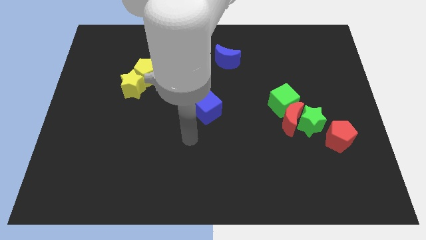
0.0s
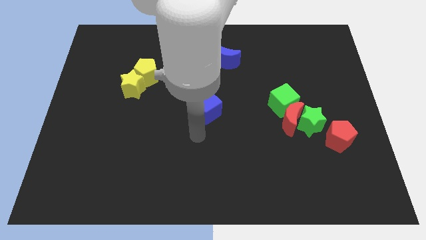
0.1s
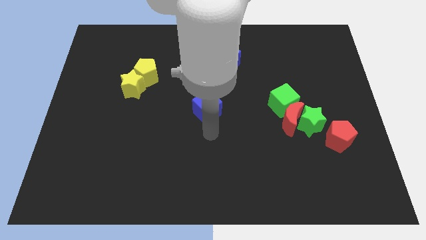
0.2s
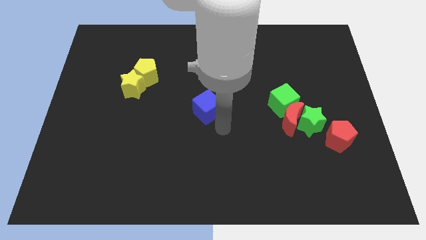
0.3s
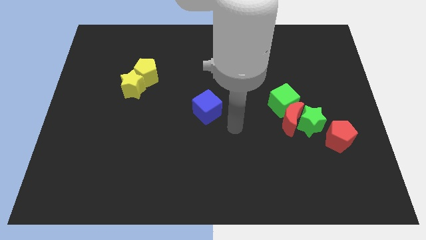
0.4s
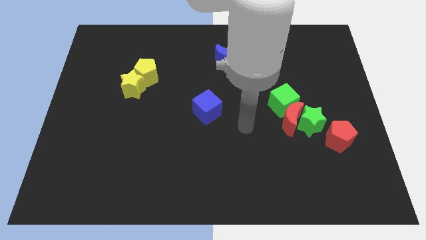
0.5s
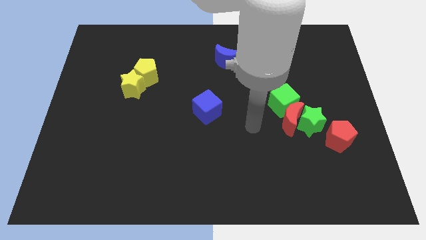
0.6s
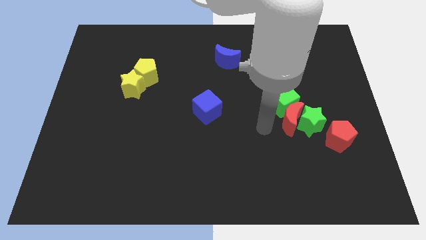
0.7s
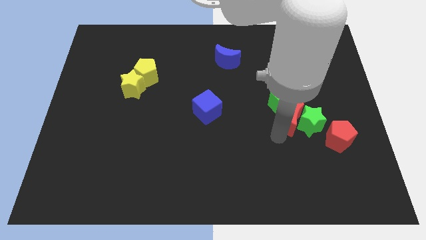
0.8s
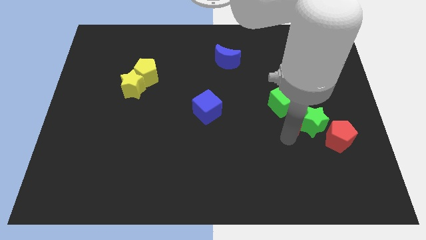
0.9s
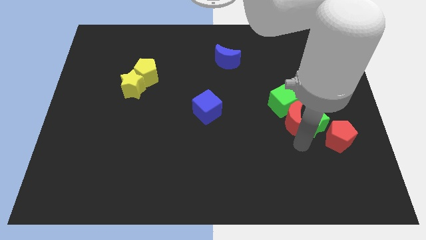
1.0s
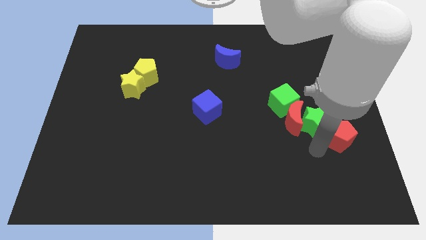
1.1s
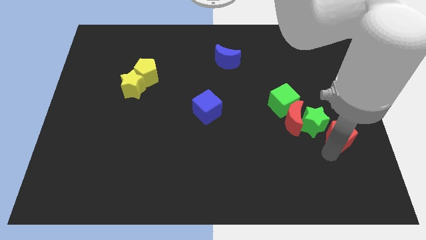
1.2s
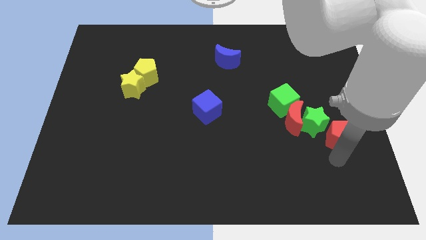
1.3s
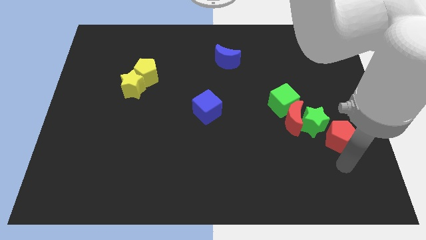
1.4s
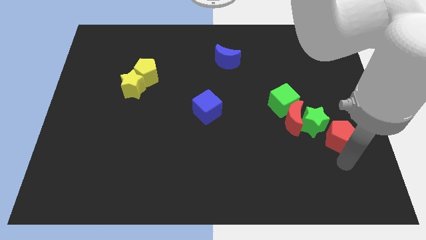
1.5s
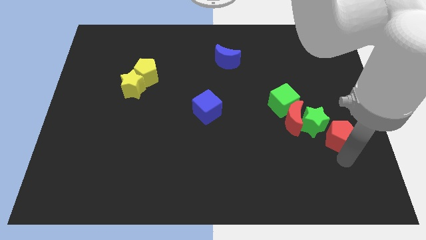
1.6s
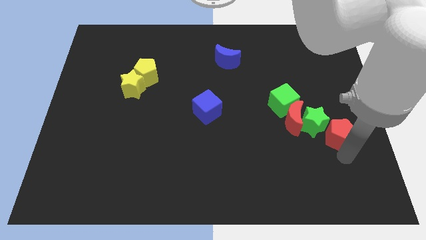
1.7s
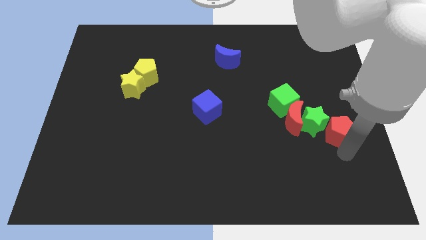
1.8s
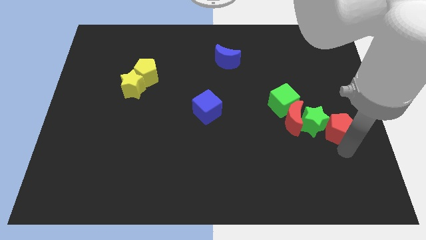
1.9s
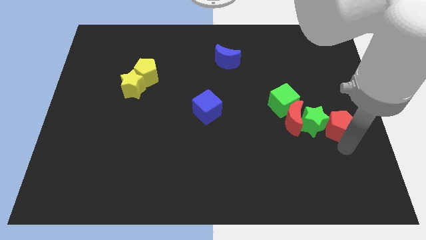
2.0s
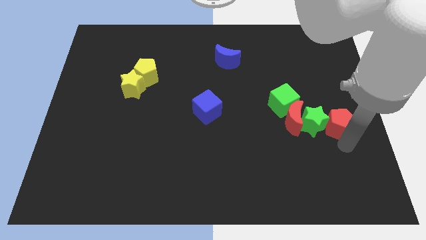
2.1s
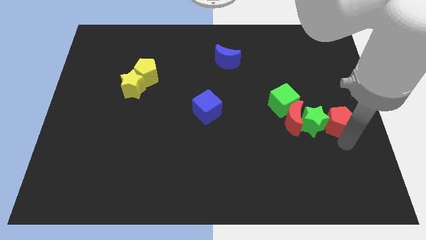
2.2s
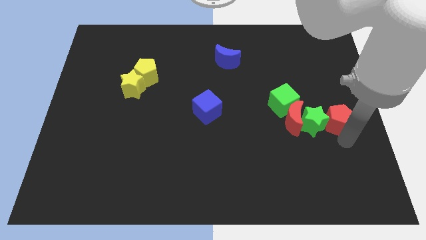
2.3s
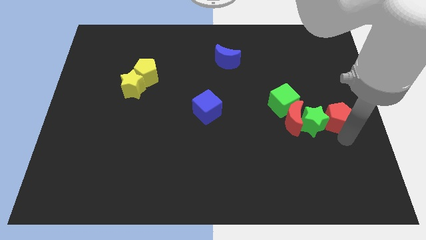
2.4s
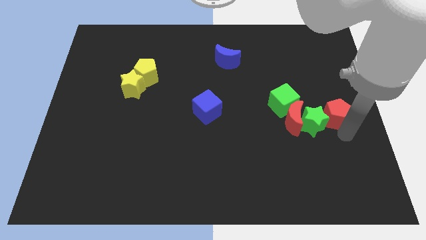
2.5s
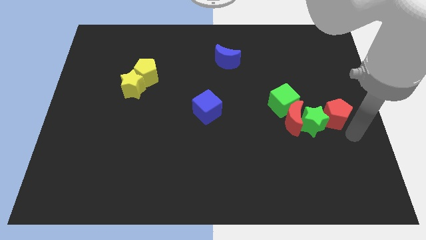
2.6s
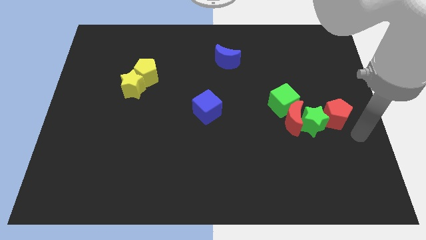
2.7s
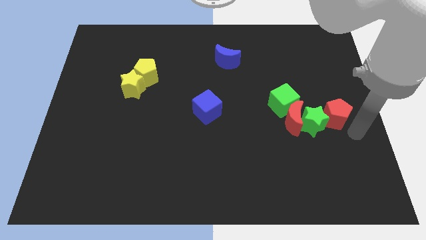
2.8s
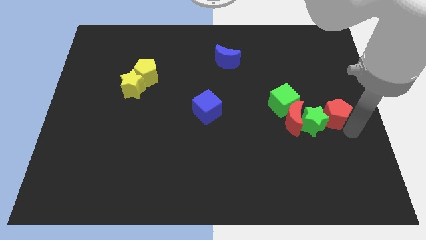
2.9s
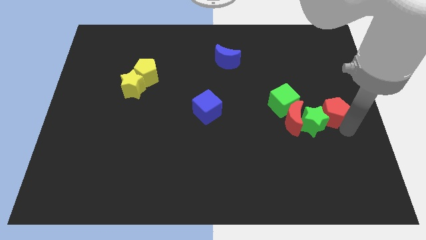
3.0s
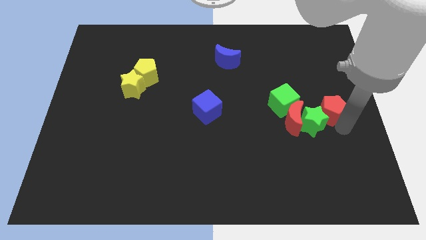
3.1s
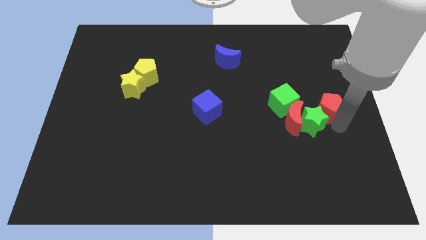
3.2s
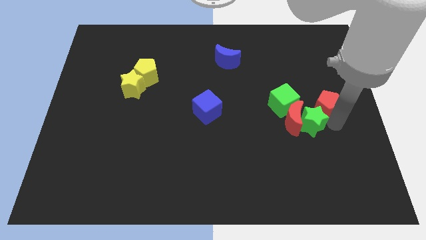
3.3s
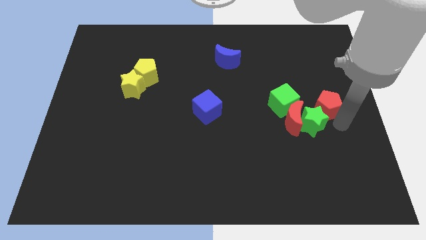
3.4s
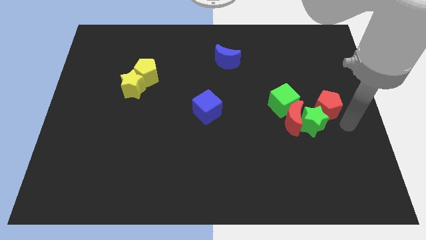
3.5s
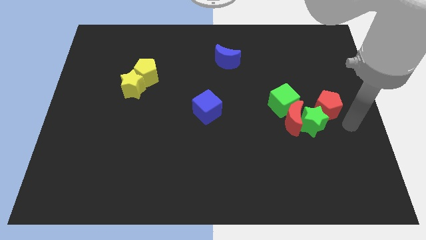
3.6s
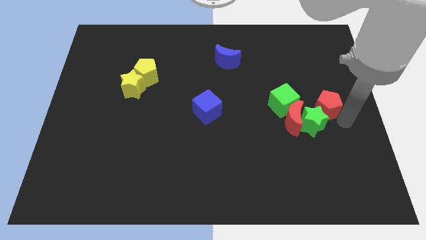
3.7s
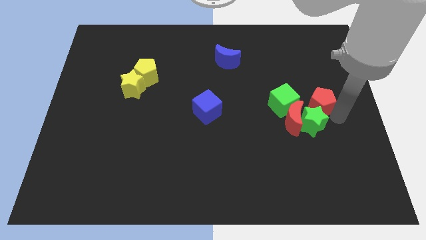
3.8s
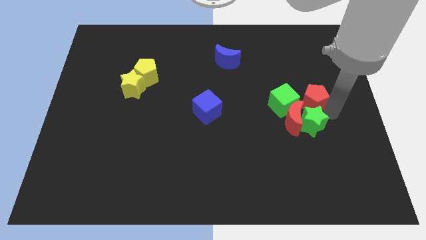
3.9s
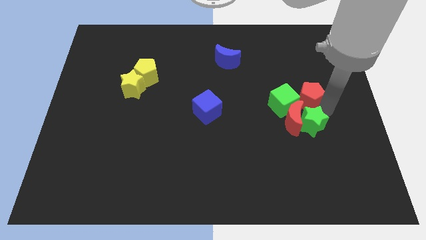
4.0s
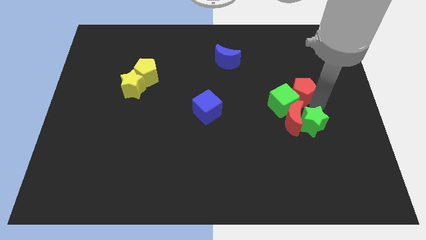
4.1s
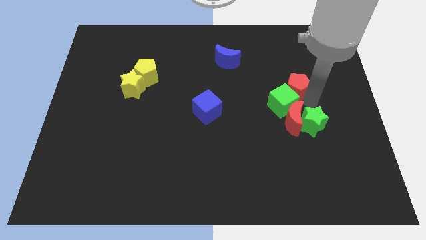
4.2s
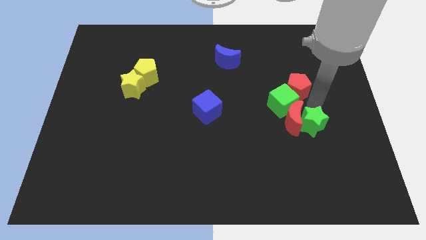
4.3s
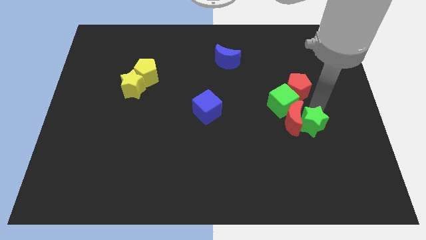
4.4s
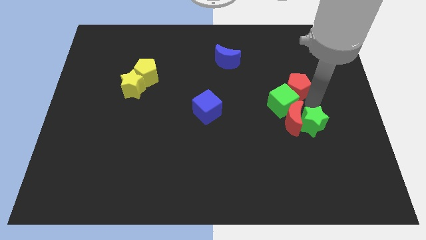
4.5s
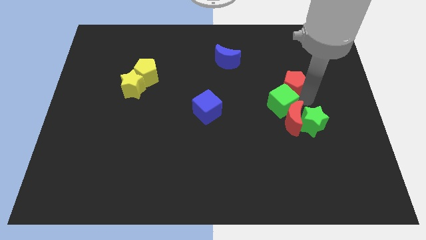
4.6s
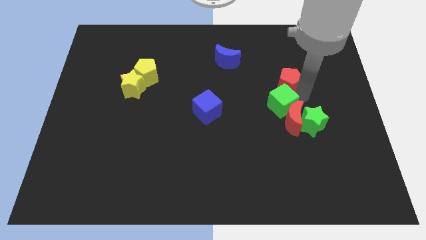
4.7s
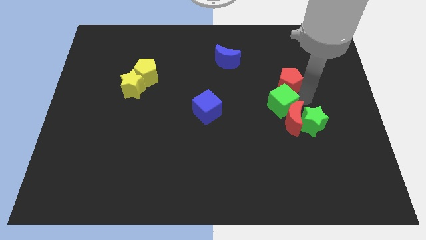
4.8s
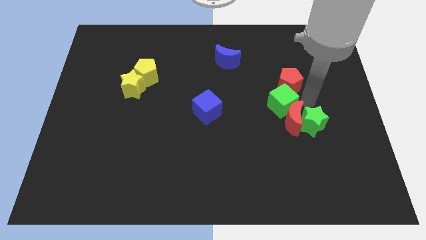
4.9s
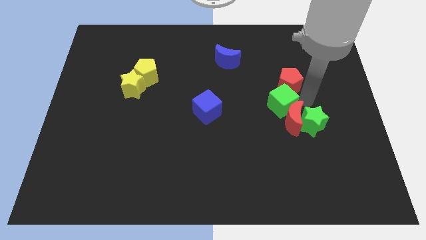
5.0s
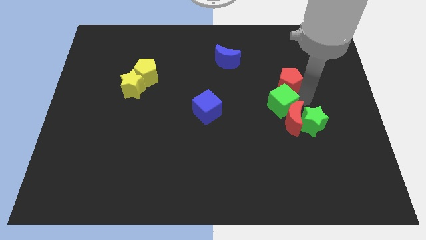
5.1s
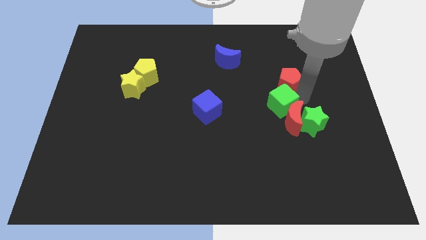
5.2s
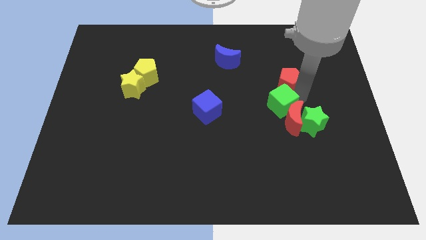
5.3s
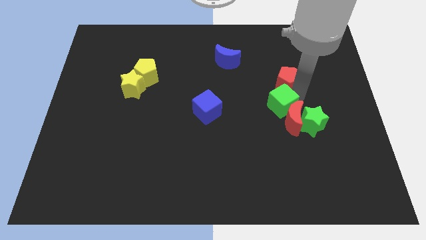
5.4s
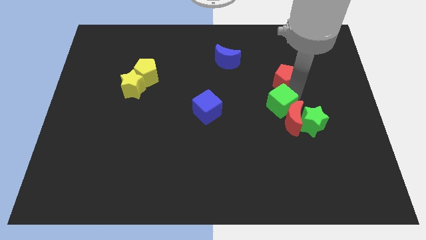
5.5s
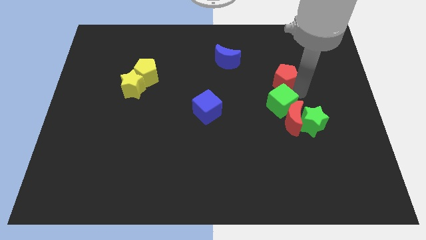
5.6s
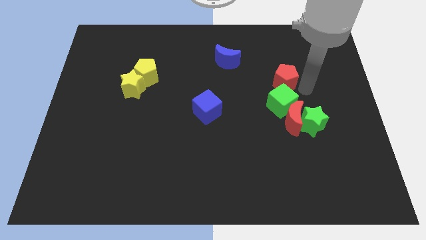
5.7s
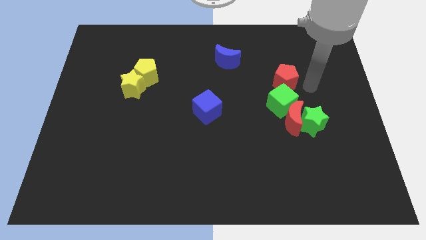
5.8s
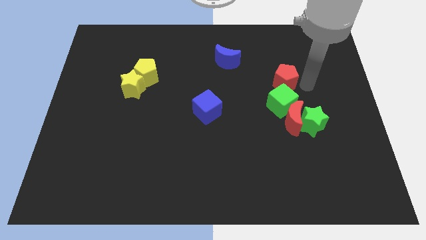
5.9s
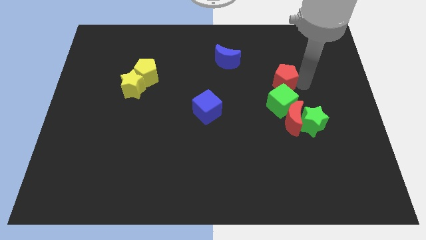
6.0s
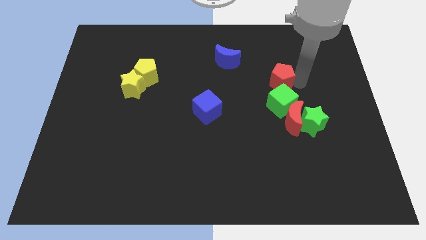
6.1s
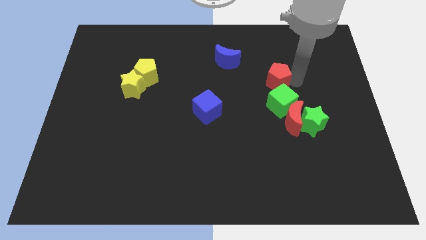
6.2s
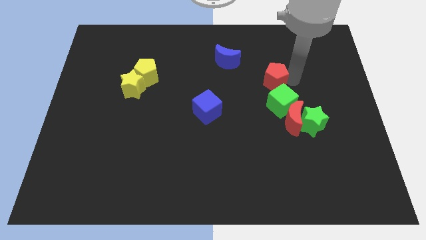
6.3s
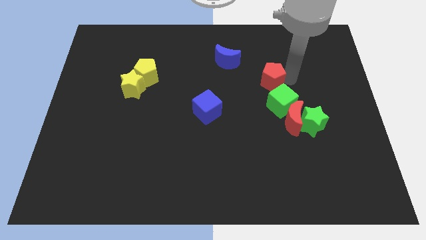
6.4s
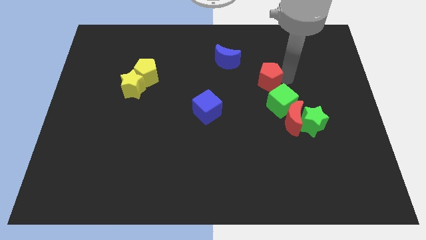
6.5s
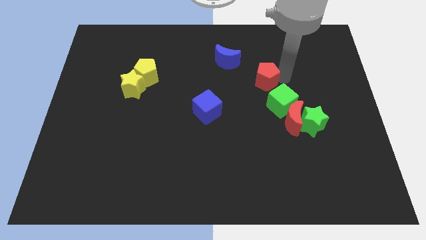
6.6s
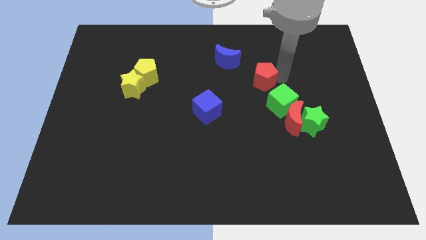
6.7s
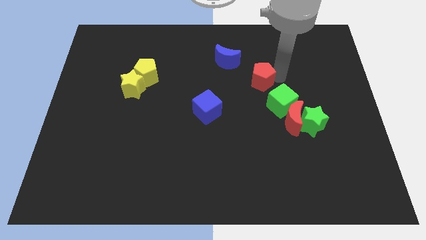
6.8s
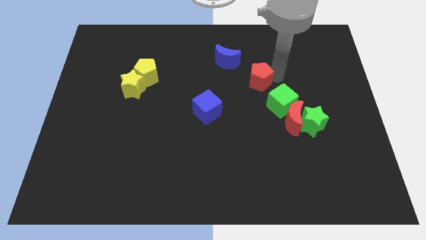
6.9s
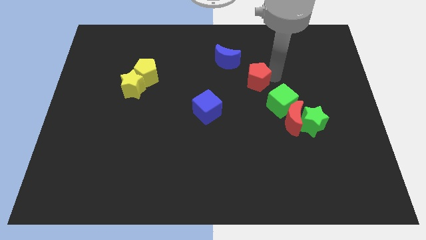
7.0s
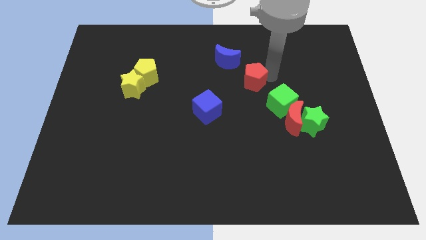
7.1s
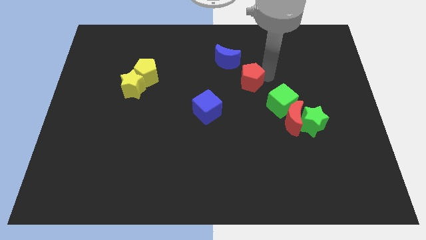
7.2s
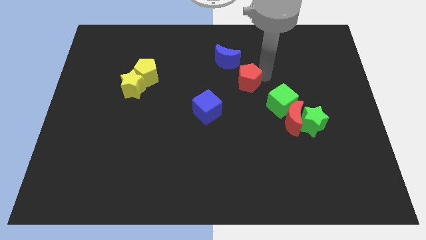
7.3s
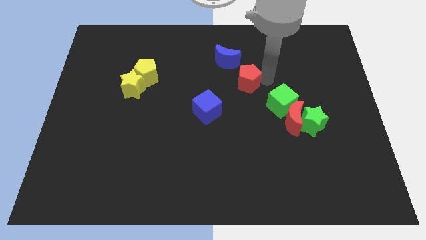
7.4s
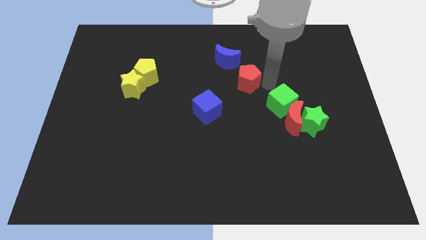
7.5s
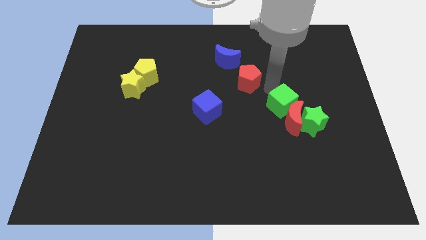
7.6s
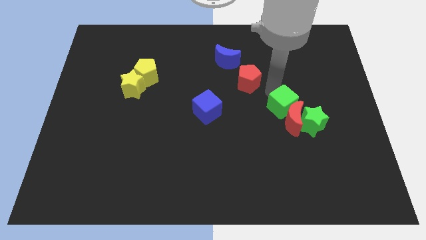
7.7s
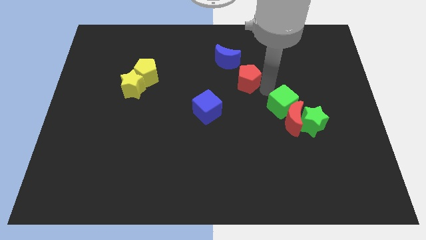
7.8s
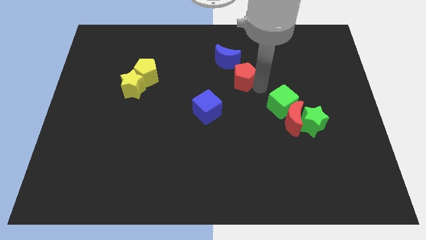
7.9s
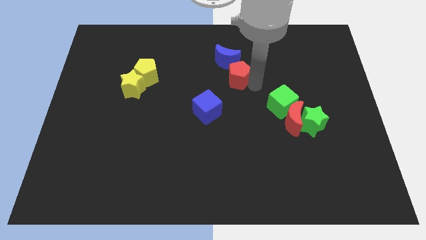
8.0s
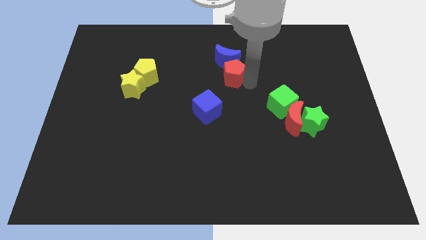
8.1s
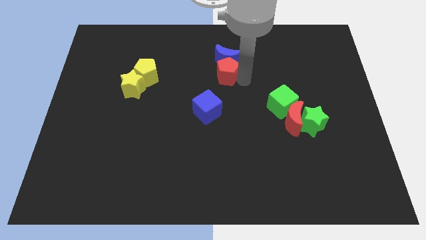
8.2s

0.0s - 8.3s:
put the red pentagon diagonally down and to the left of the blue moon
